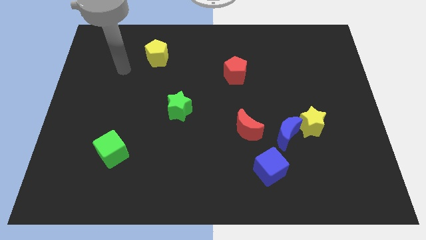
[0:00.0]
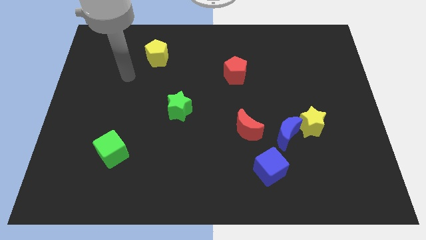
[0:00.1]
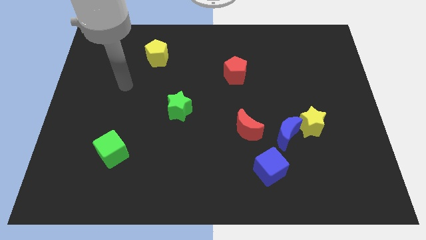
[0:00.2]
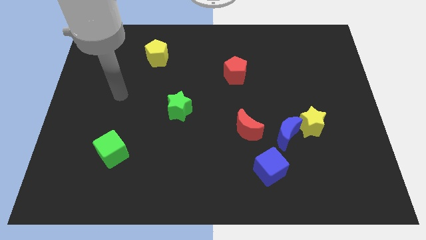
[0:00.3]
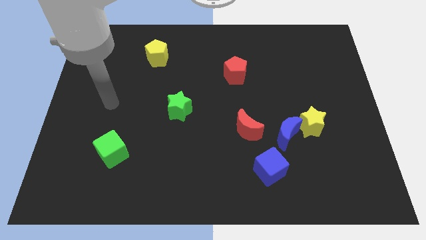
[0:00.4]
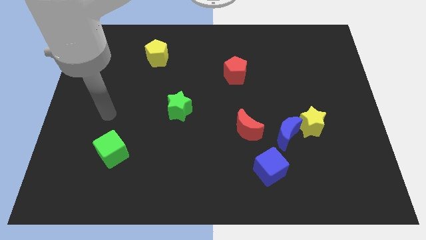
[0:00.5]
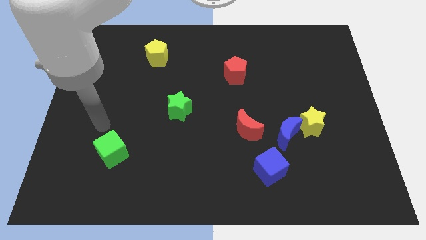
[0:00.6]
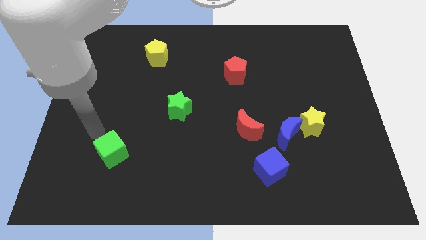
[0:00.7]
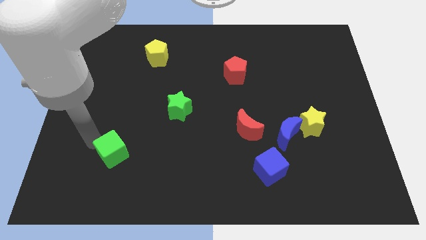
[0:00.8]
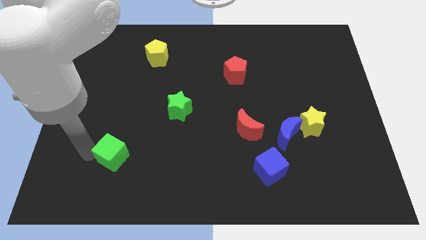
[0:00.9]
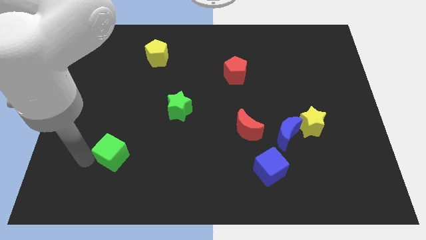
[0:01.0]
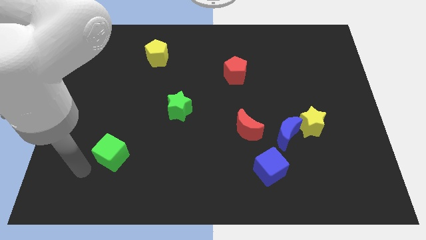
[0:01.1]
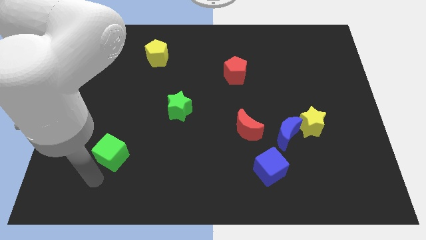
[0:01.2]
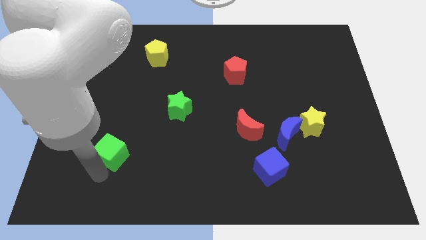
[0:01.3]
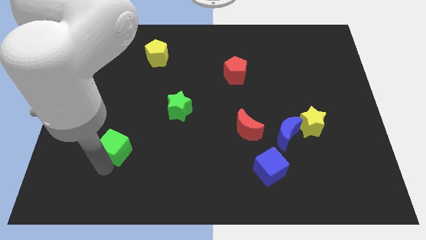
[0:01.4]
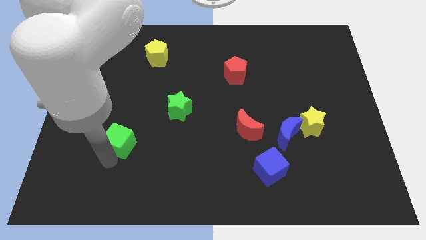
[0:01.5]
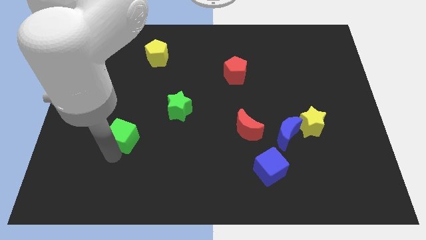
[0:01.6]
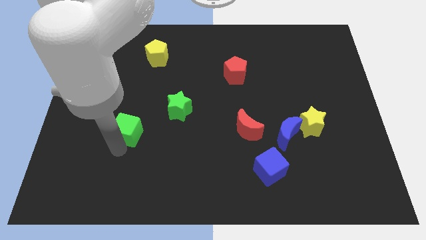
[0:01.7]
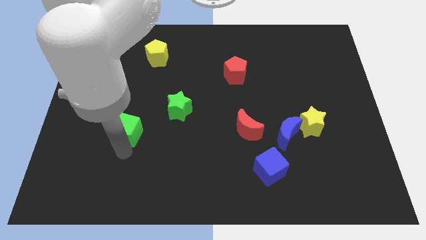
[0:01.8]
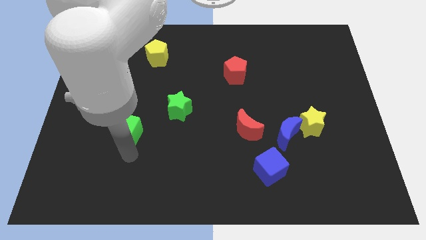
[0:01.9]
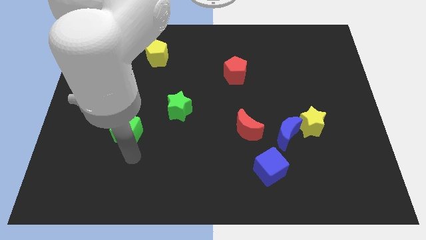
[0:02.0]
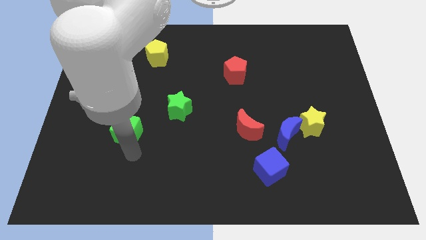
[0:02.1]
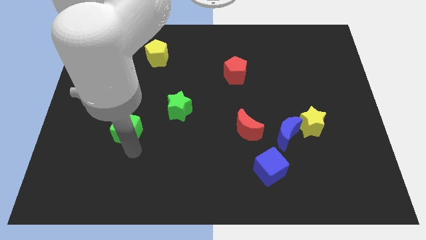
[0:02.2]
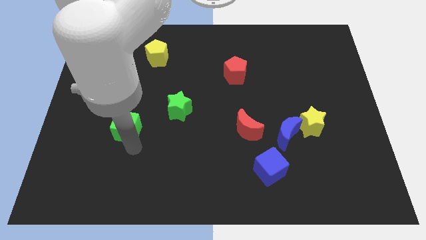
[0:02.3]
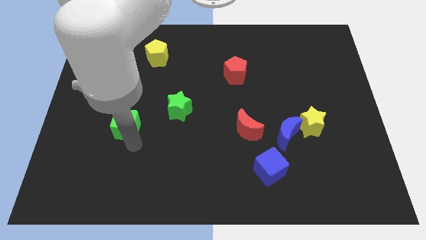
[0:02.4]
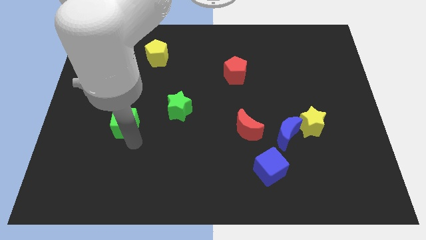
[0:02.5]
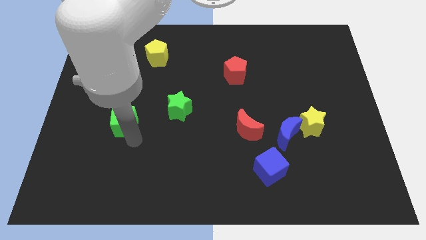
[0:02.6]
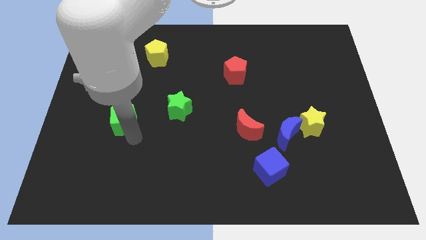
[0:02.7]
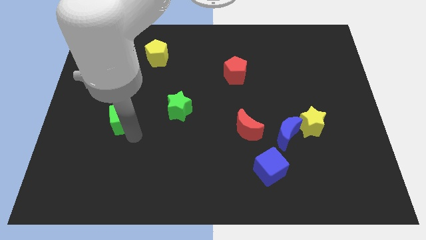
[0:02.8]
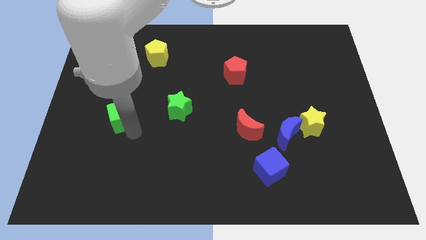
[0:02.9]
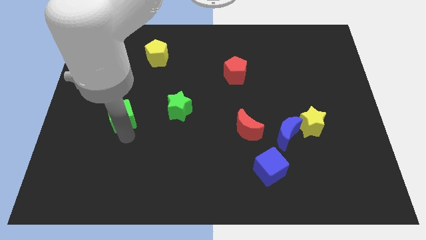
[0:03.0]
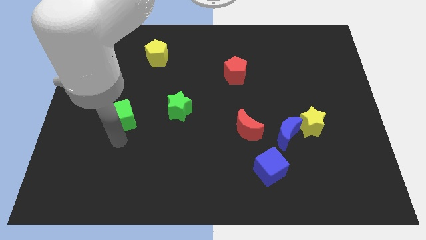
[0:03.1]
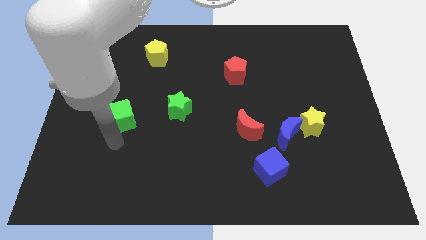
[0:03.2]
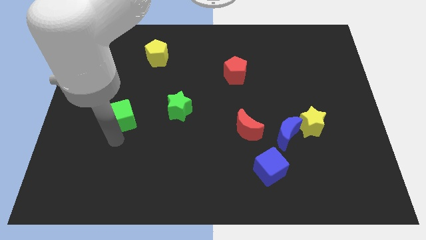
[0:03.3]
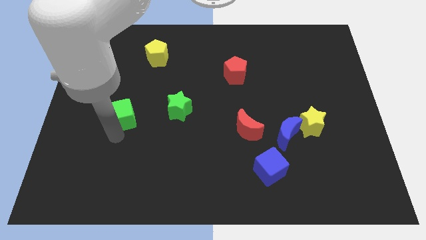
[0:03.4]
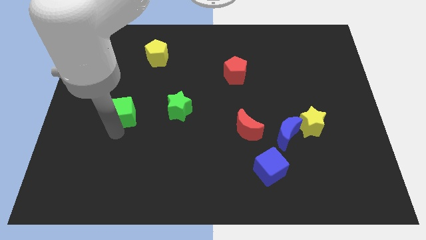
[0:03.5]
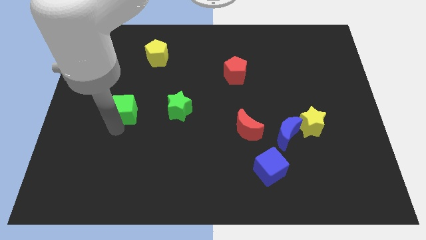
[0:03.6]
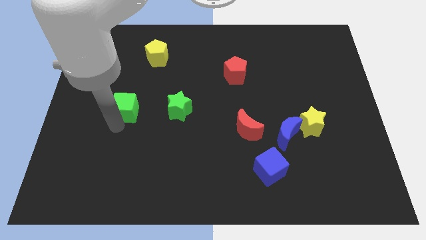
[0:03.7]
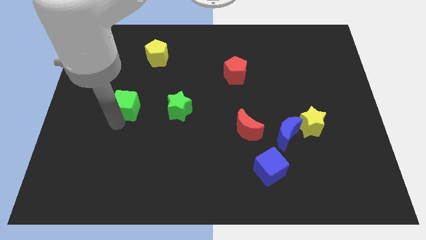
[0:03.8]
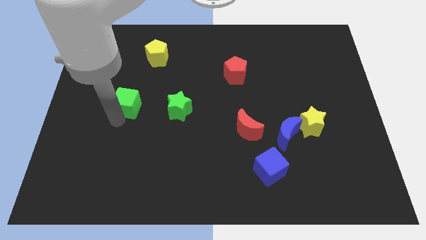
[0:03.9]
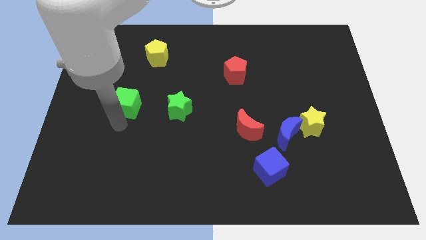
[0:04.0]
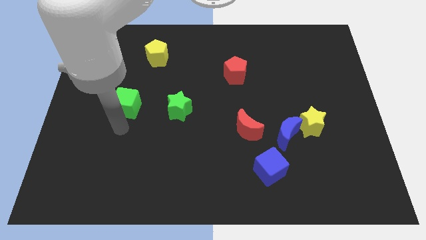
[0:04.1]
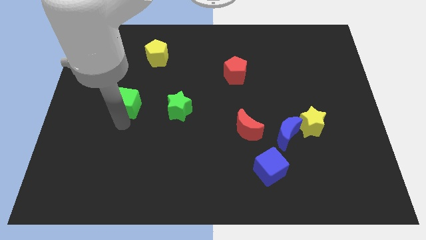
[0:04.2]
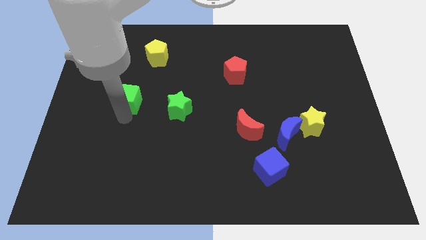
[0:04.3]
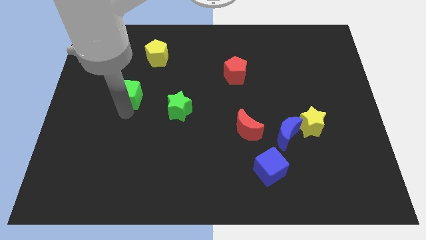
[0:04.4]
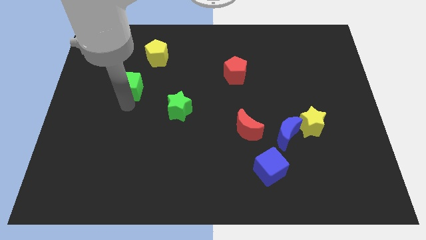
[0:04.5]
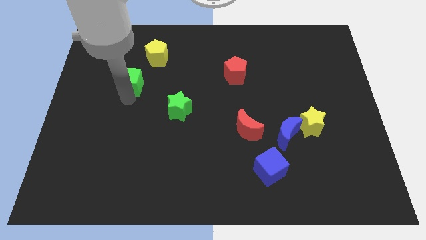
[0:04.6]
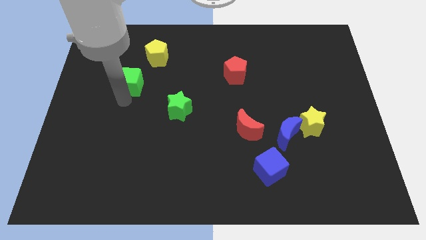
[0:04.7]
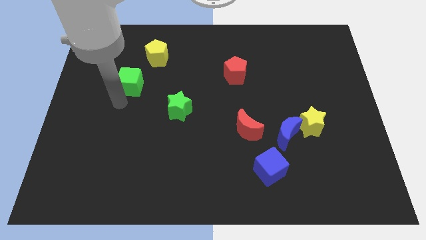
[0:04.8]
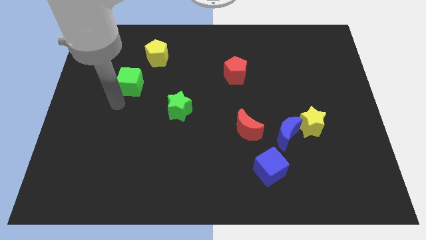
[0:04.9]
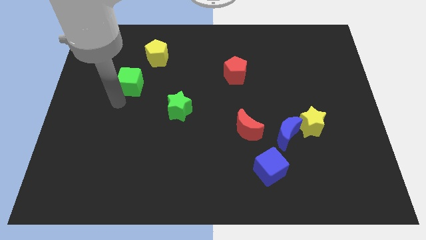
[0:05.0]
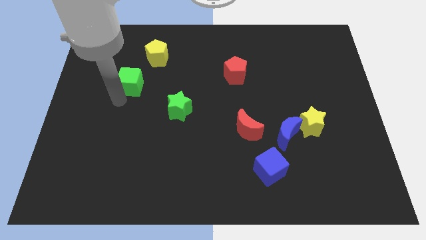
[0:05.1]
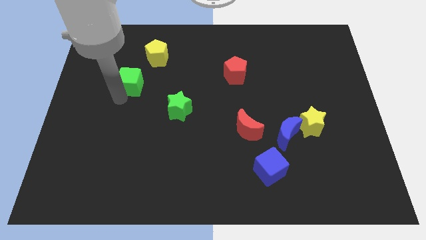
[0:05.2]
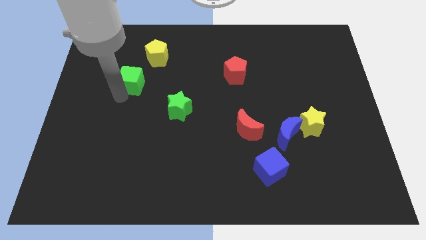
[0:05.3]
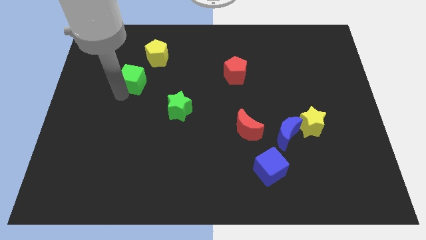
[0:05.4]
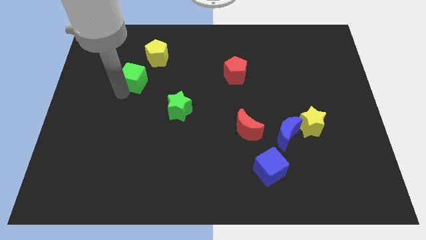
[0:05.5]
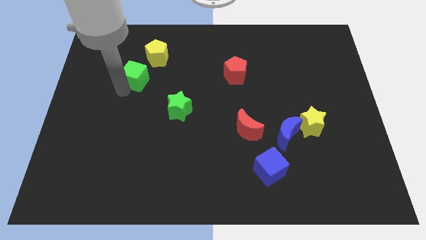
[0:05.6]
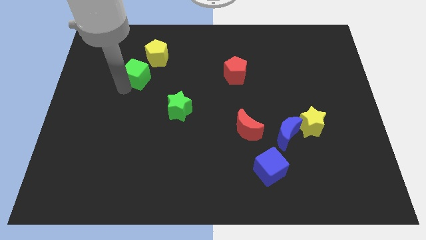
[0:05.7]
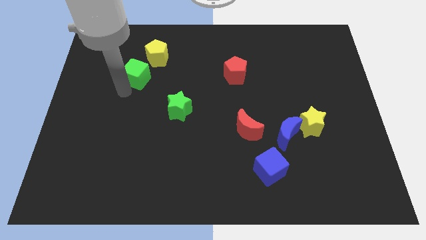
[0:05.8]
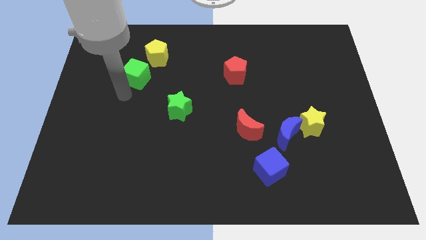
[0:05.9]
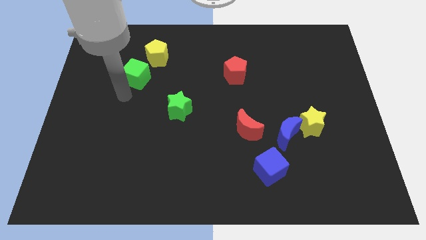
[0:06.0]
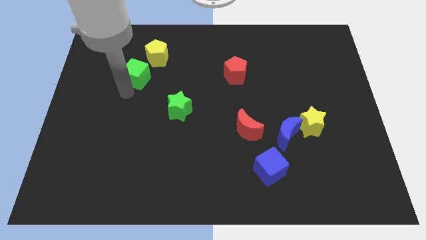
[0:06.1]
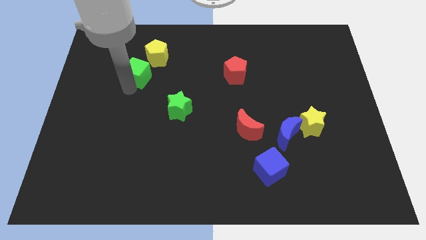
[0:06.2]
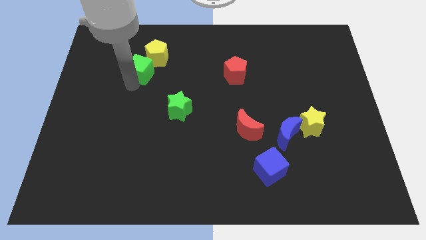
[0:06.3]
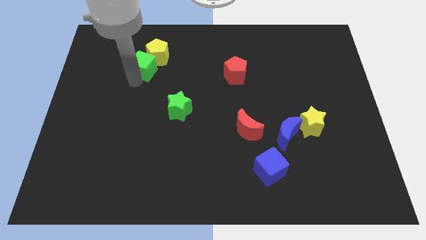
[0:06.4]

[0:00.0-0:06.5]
push the green cube next to the yellow pentagon

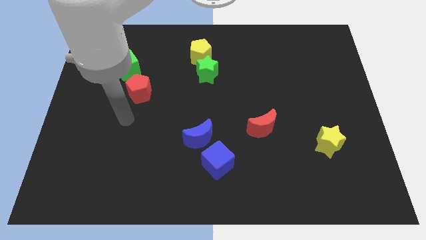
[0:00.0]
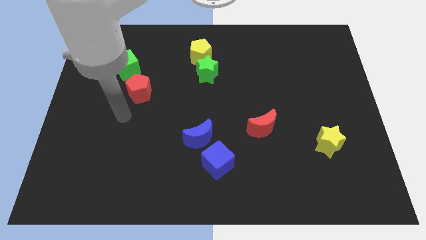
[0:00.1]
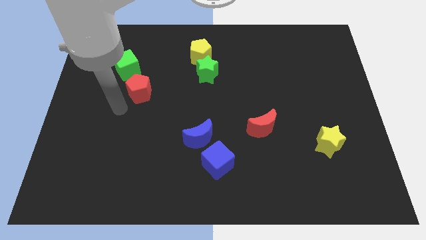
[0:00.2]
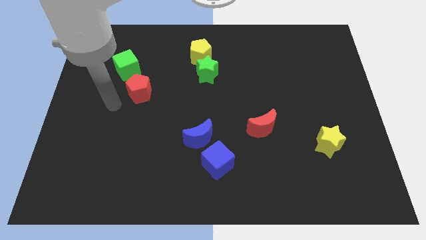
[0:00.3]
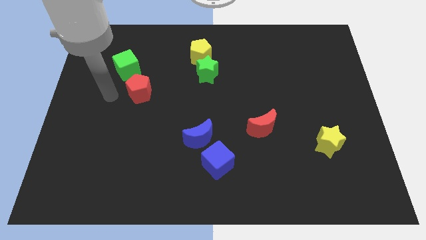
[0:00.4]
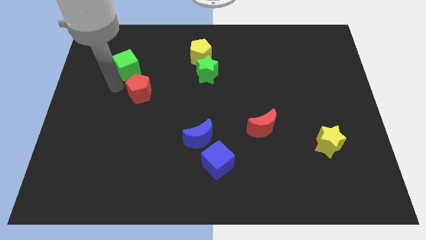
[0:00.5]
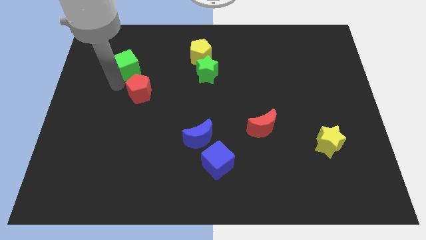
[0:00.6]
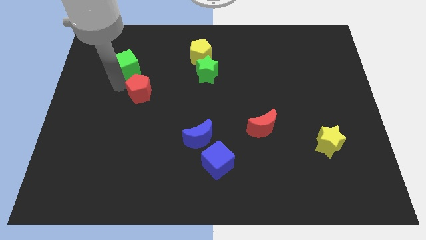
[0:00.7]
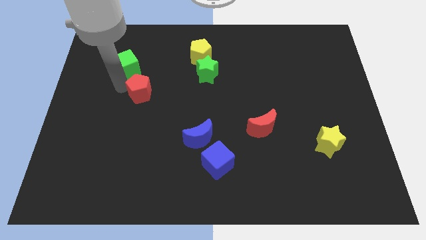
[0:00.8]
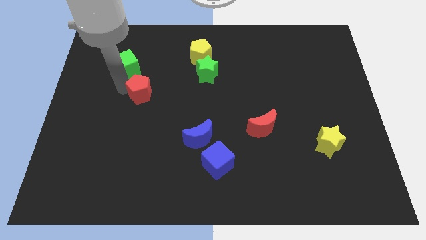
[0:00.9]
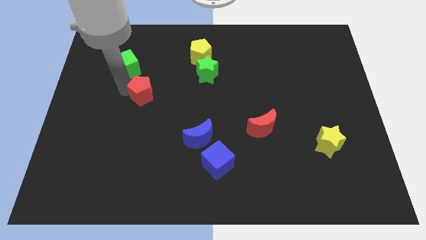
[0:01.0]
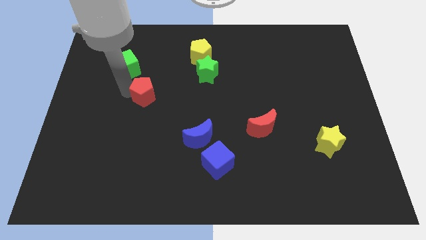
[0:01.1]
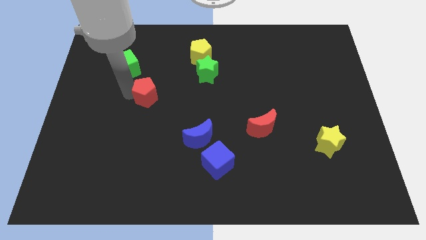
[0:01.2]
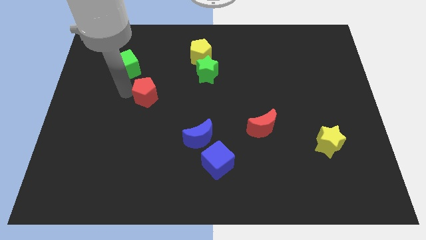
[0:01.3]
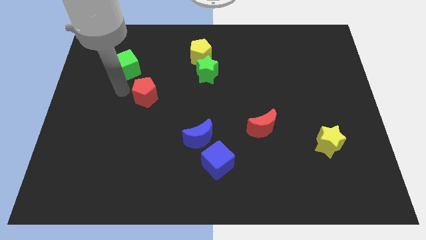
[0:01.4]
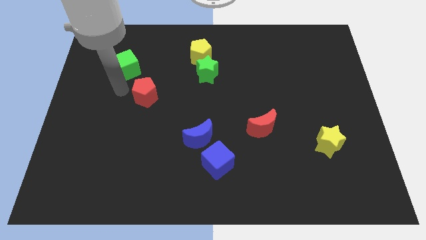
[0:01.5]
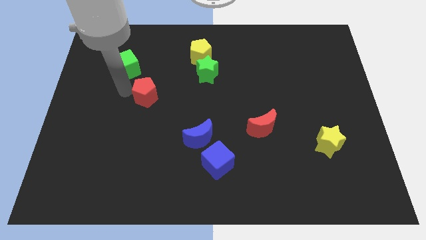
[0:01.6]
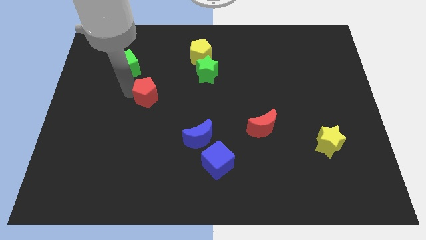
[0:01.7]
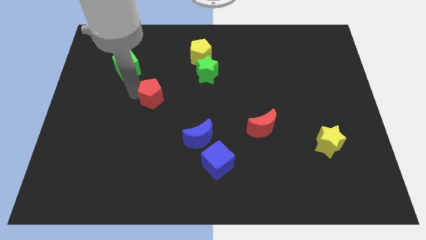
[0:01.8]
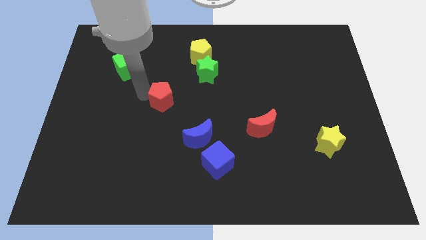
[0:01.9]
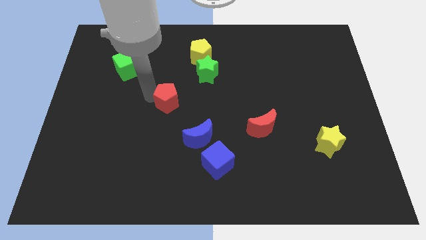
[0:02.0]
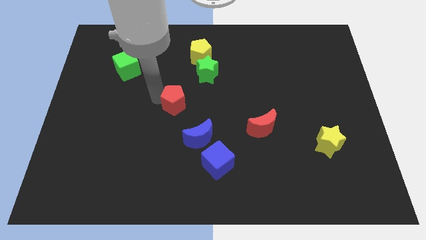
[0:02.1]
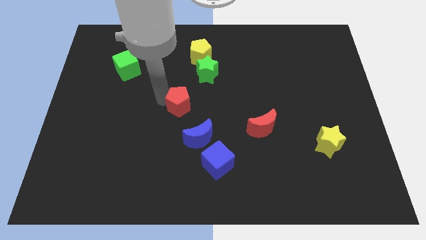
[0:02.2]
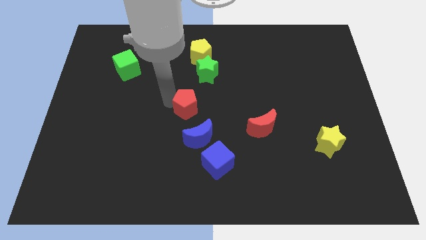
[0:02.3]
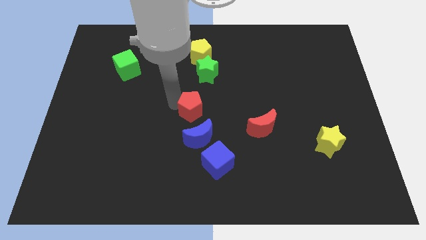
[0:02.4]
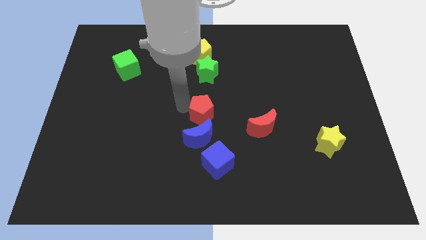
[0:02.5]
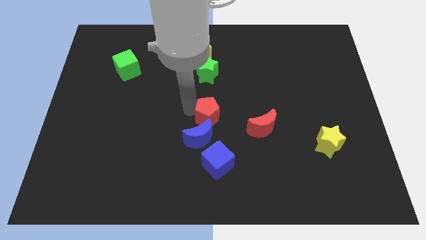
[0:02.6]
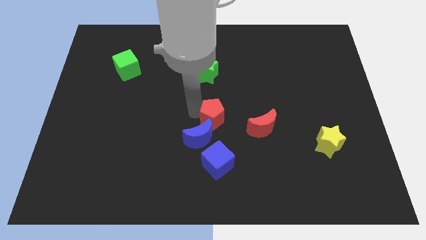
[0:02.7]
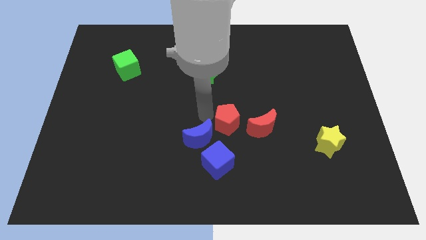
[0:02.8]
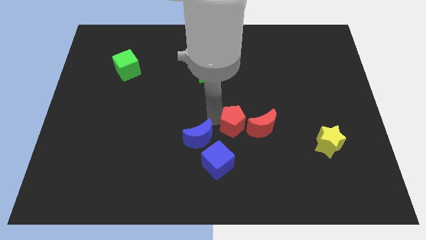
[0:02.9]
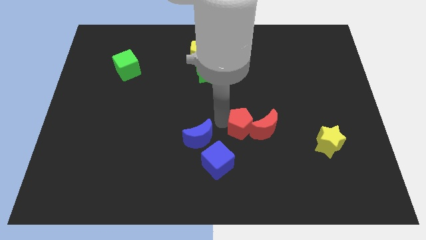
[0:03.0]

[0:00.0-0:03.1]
put the red pentagon close to the red moon
